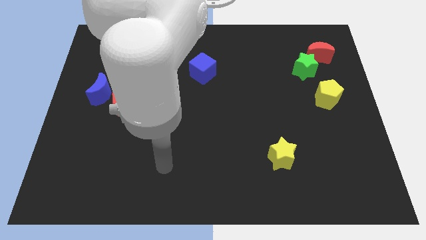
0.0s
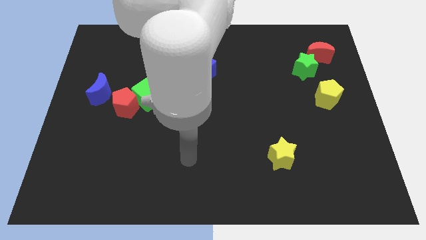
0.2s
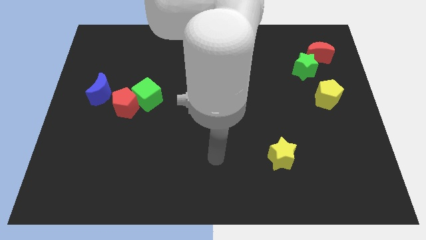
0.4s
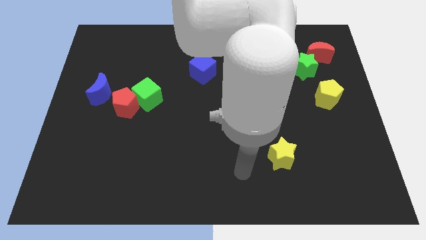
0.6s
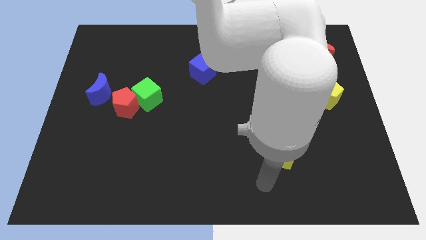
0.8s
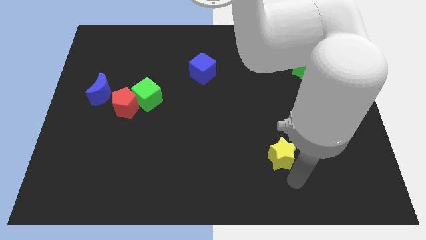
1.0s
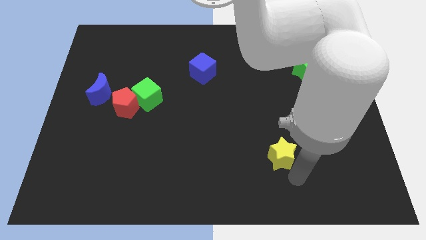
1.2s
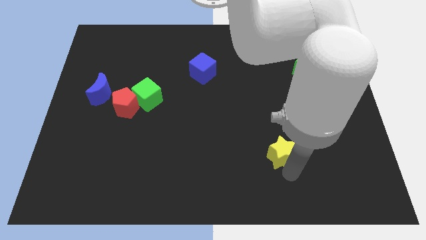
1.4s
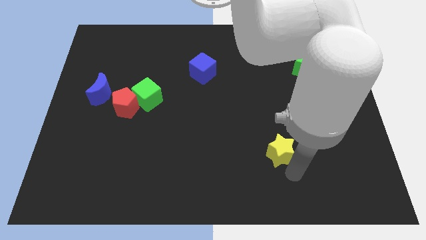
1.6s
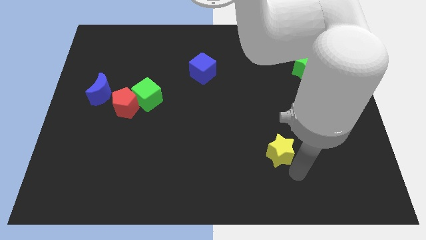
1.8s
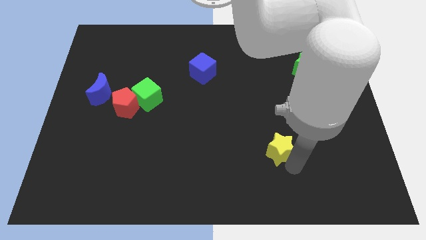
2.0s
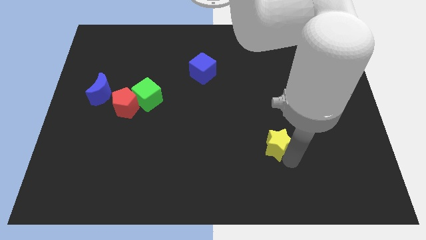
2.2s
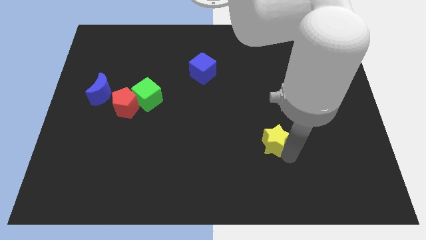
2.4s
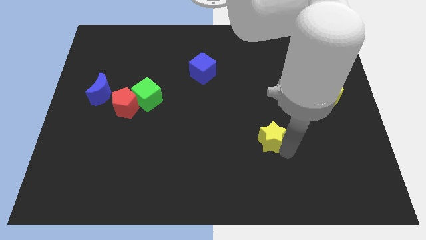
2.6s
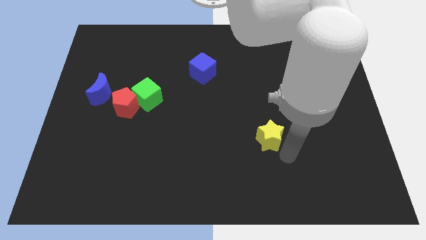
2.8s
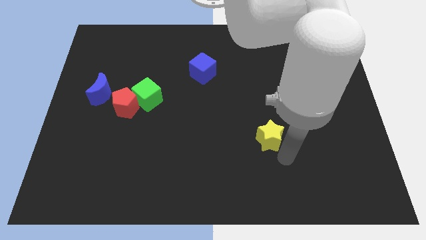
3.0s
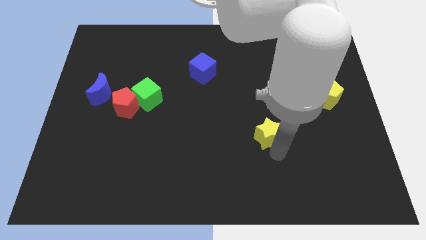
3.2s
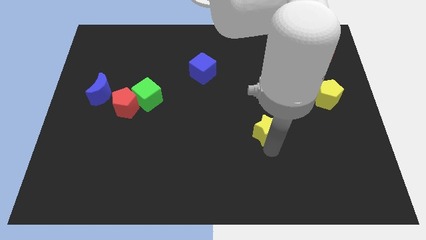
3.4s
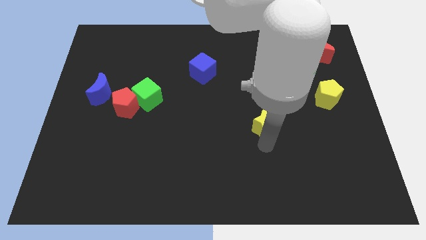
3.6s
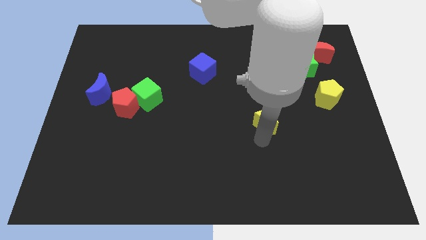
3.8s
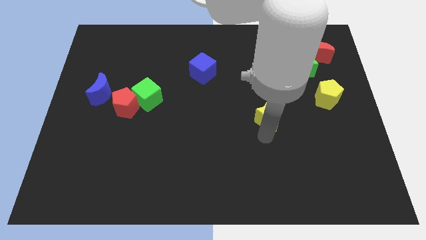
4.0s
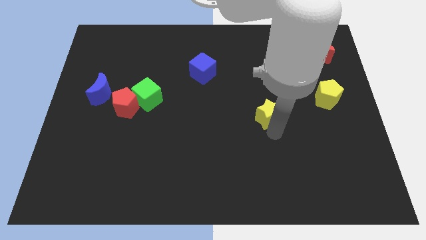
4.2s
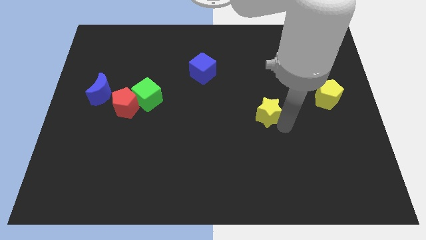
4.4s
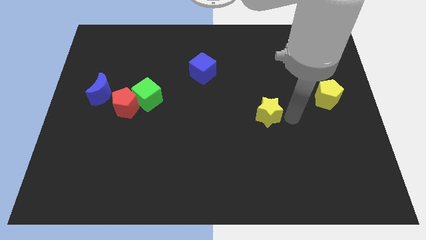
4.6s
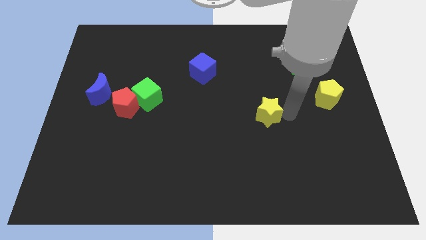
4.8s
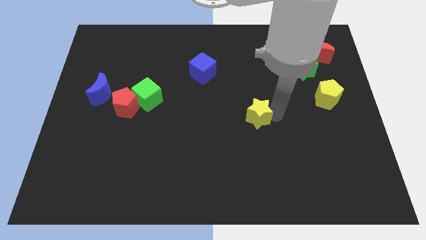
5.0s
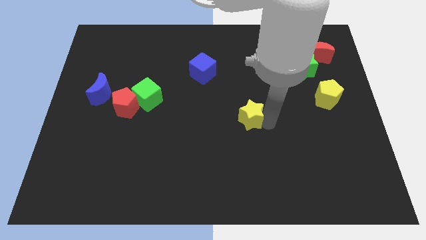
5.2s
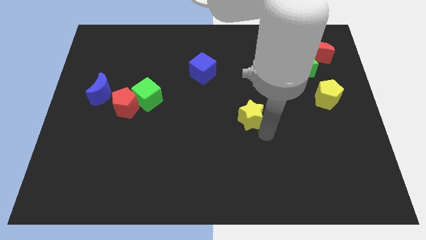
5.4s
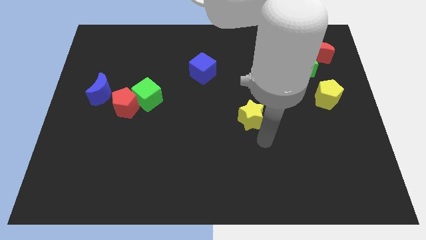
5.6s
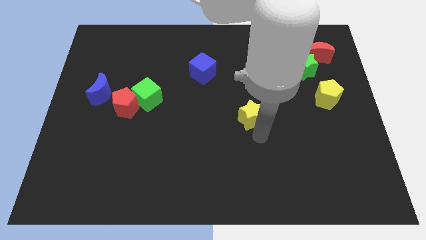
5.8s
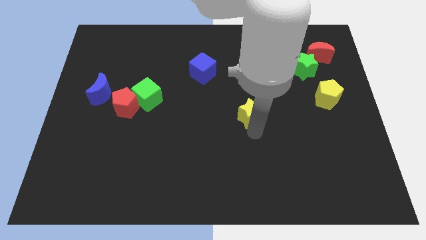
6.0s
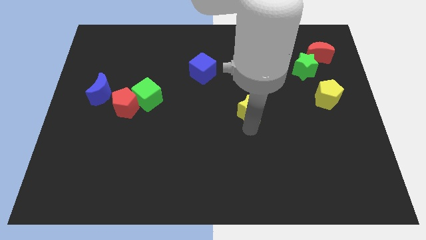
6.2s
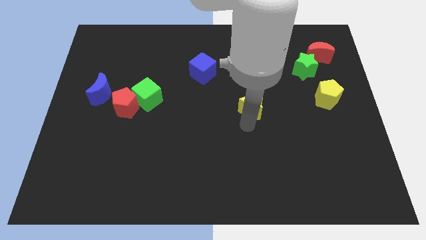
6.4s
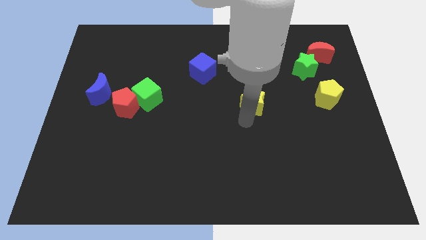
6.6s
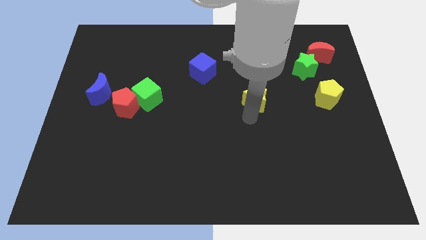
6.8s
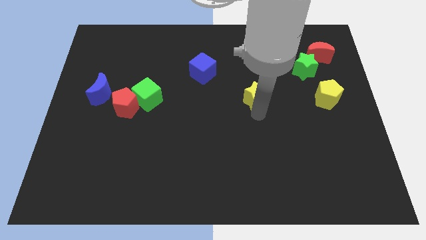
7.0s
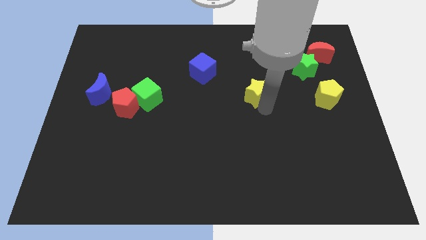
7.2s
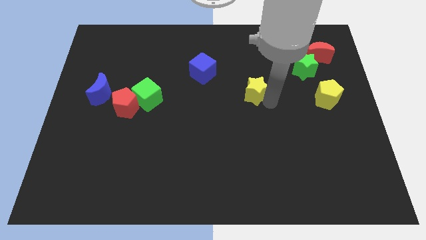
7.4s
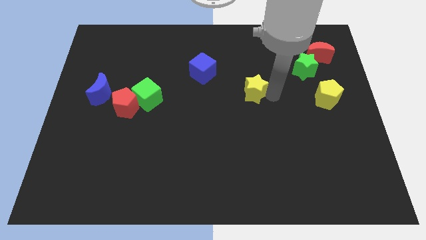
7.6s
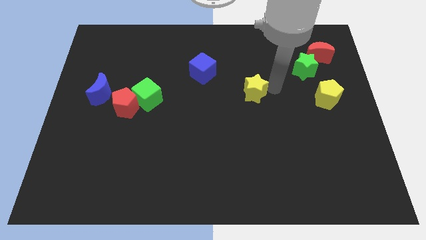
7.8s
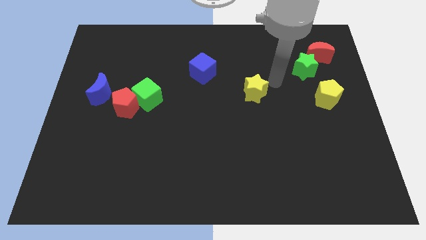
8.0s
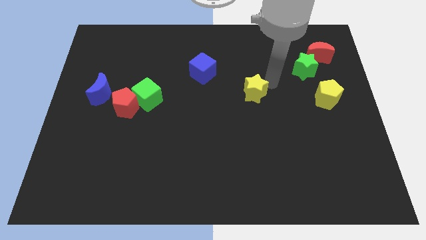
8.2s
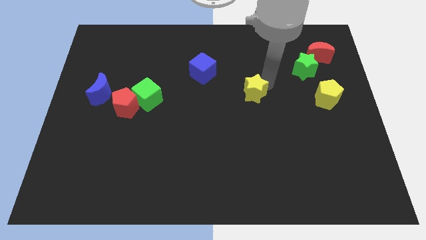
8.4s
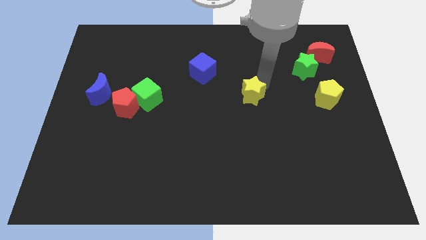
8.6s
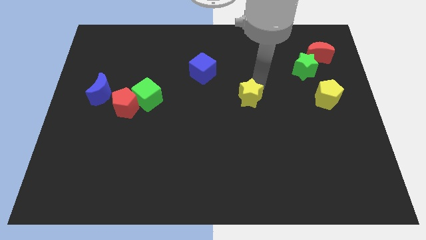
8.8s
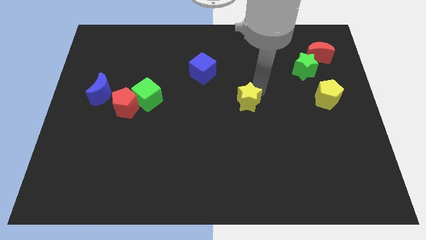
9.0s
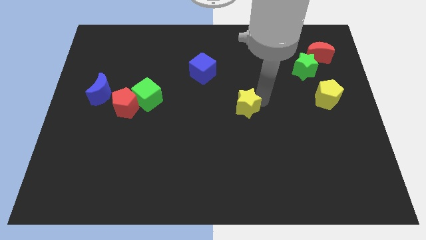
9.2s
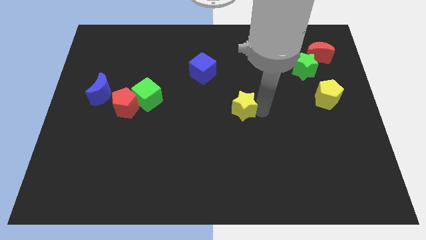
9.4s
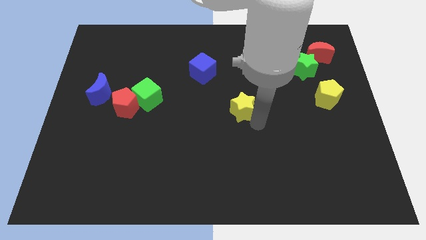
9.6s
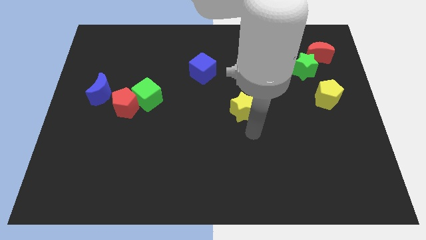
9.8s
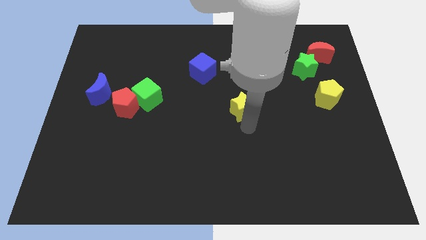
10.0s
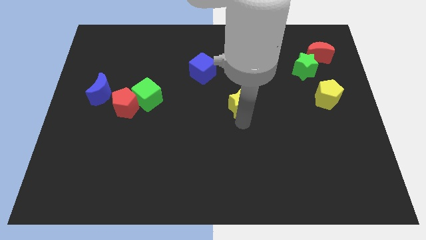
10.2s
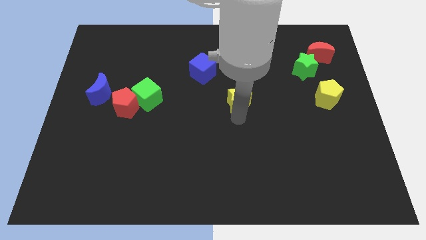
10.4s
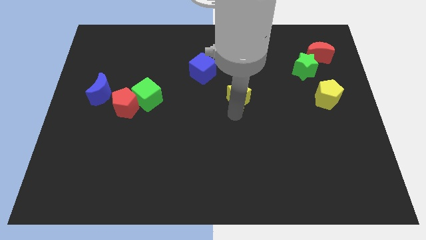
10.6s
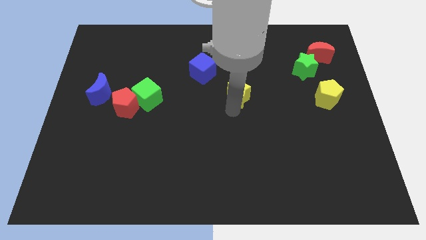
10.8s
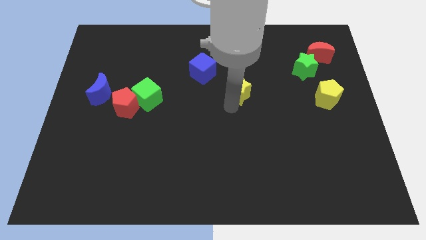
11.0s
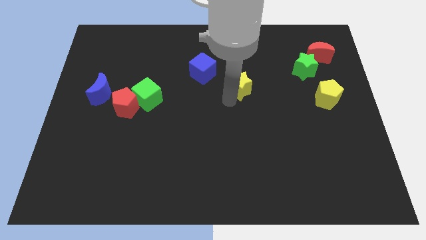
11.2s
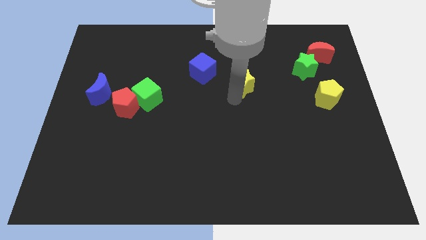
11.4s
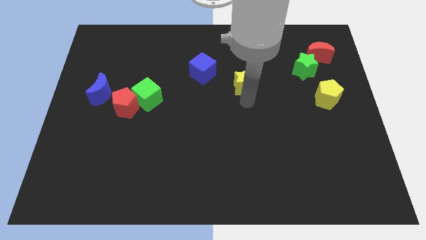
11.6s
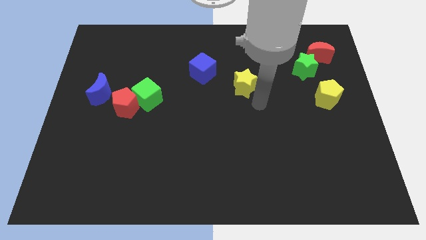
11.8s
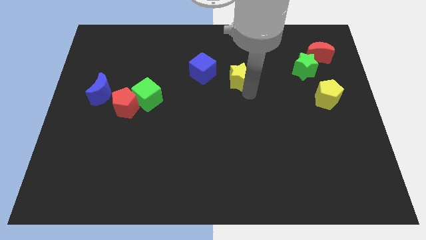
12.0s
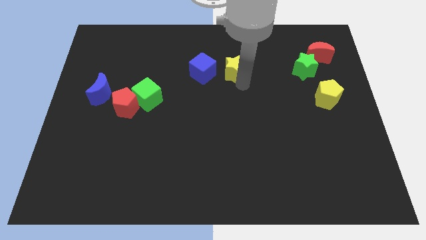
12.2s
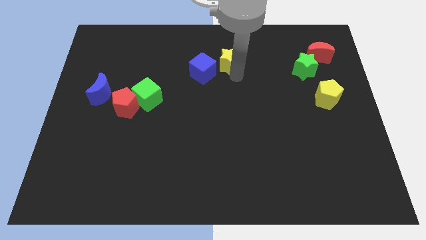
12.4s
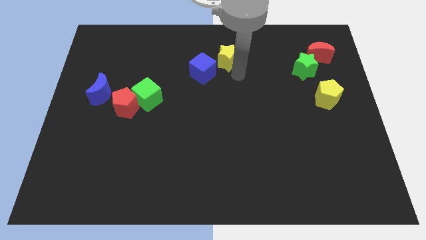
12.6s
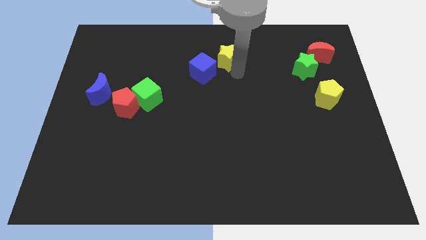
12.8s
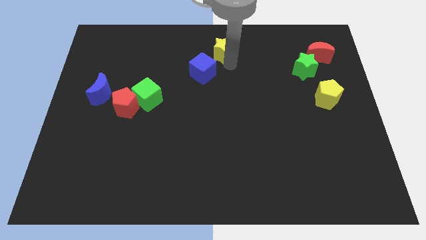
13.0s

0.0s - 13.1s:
slide the yellow star to the towards your base

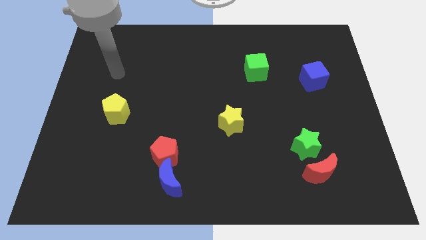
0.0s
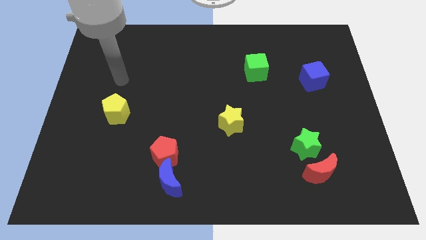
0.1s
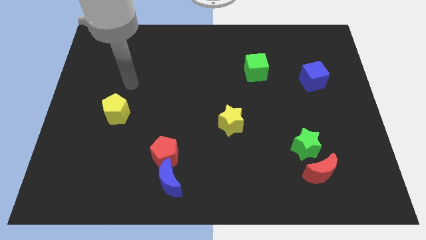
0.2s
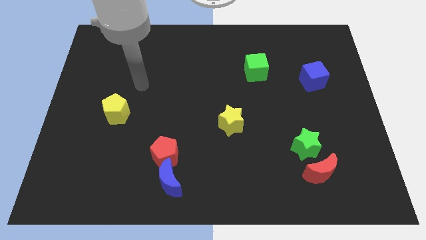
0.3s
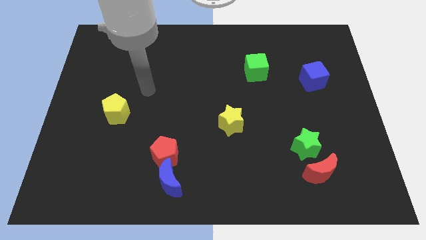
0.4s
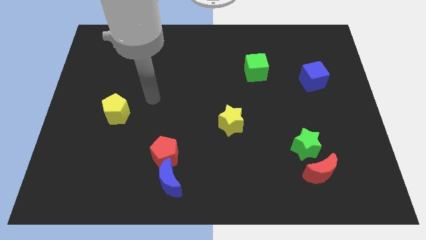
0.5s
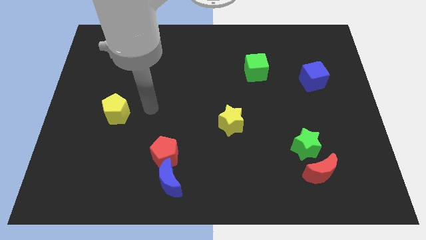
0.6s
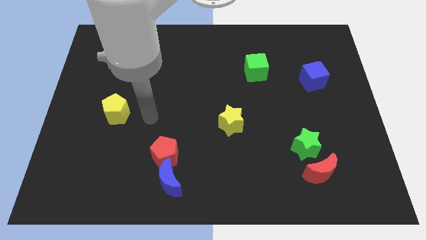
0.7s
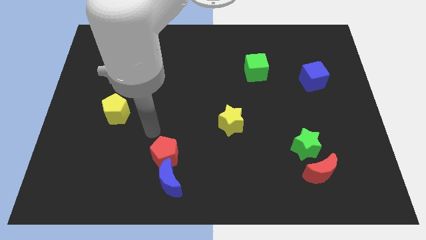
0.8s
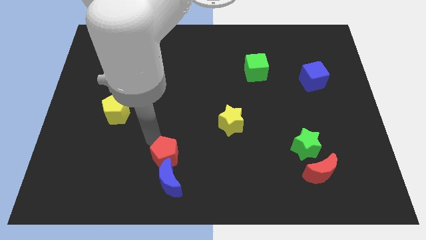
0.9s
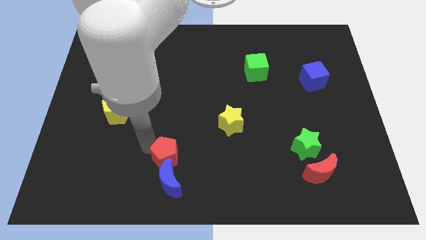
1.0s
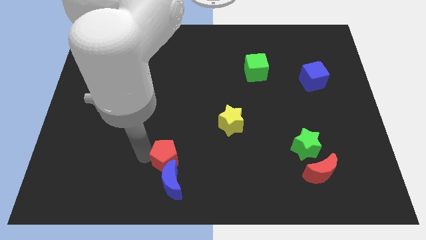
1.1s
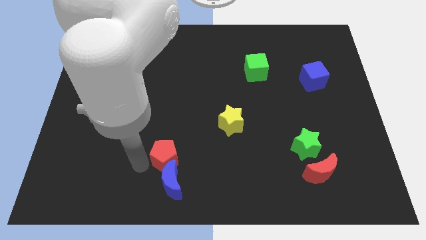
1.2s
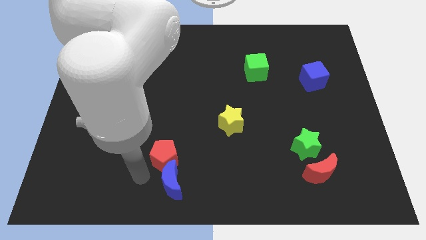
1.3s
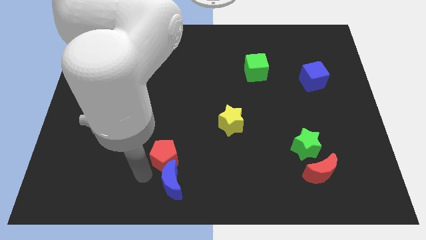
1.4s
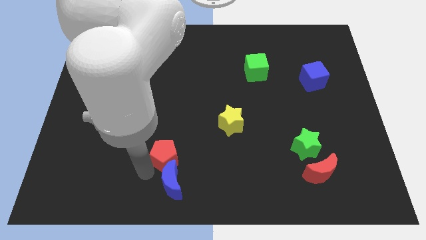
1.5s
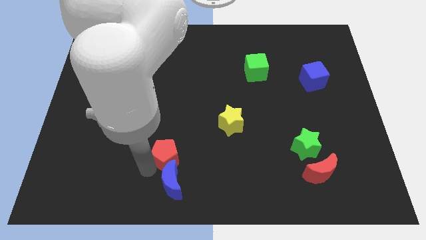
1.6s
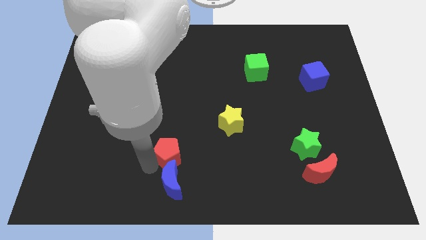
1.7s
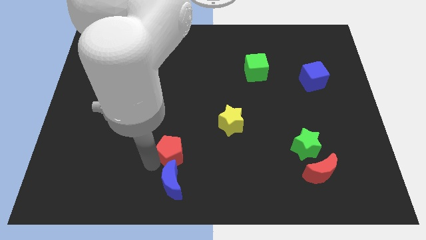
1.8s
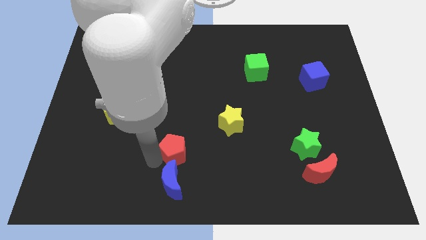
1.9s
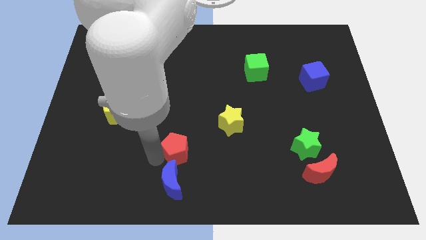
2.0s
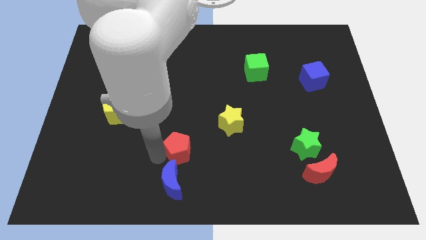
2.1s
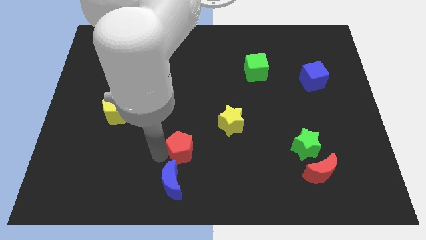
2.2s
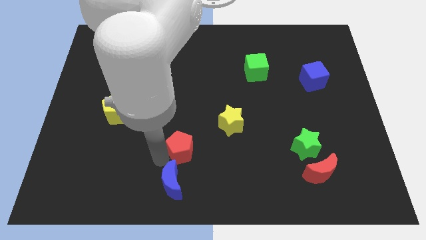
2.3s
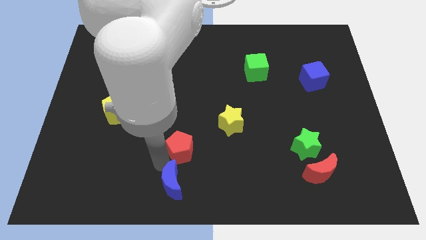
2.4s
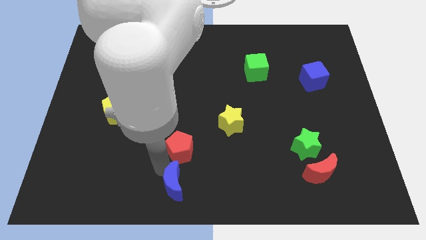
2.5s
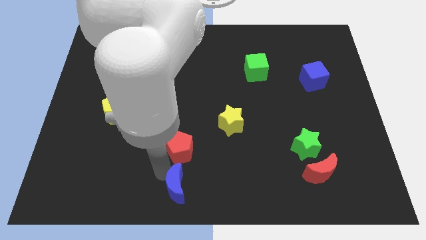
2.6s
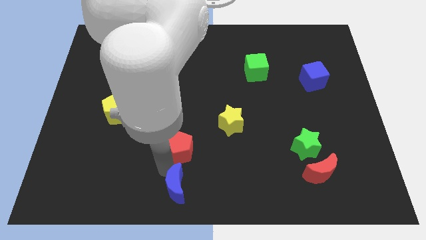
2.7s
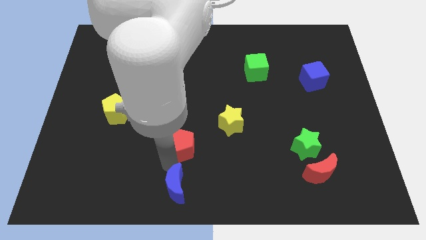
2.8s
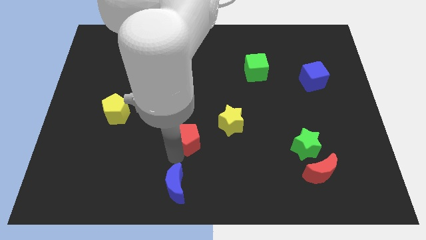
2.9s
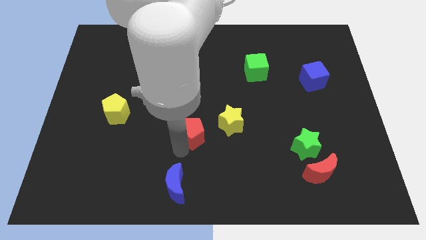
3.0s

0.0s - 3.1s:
move the red pentagon to the center of the board
